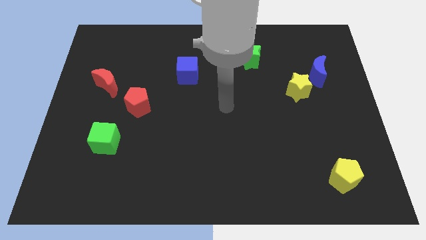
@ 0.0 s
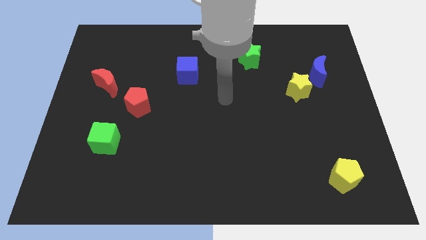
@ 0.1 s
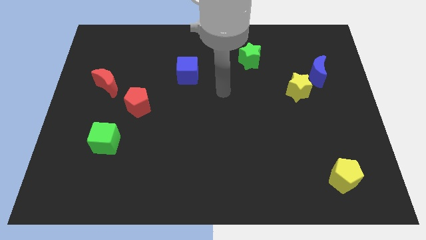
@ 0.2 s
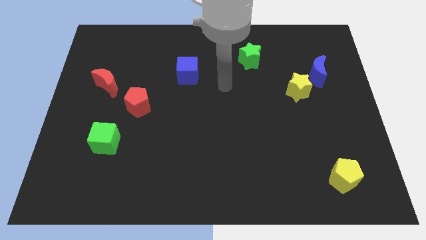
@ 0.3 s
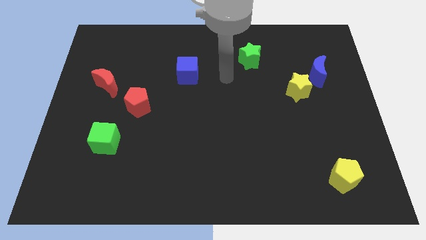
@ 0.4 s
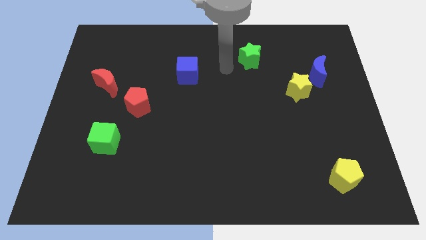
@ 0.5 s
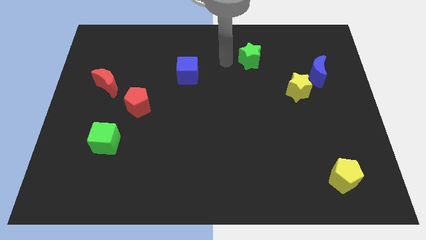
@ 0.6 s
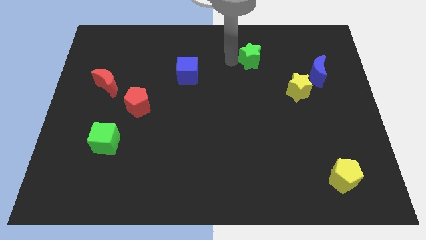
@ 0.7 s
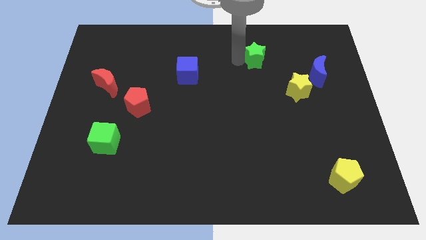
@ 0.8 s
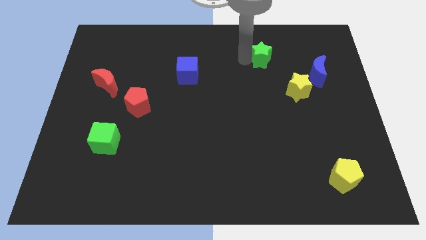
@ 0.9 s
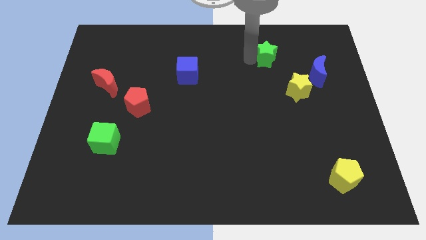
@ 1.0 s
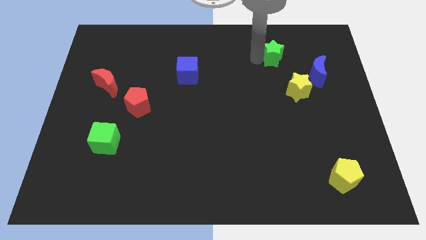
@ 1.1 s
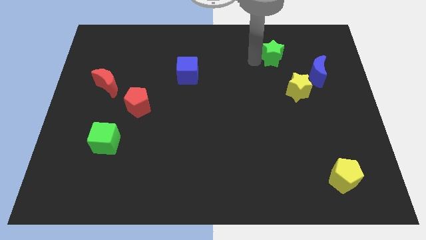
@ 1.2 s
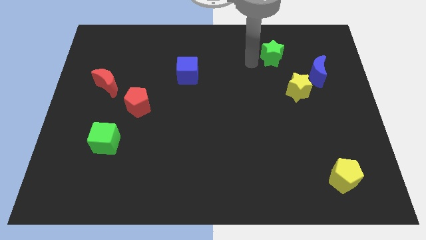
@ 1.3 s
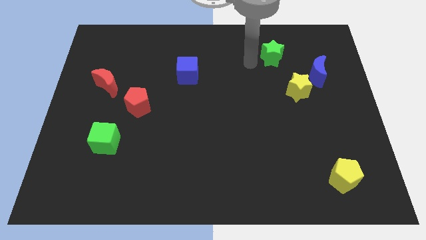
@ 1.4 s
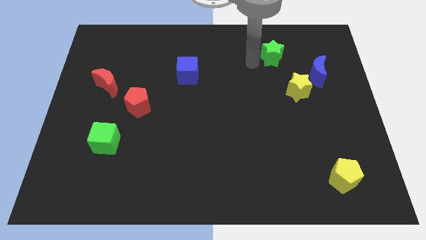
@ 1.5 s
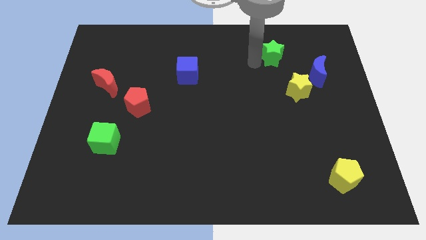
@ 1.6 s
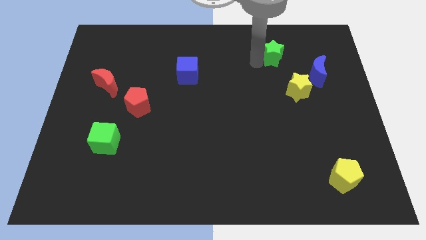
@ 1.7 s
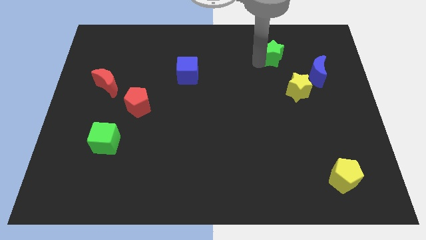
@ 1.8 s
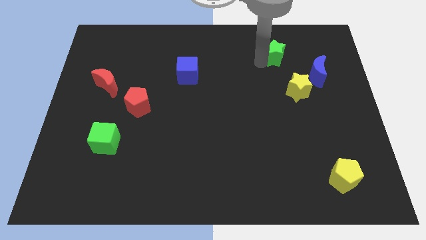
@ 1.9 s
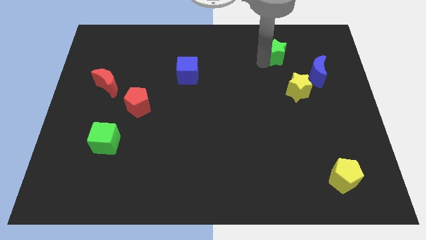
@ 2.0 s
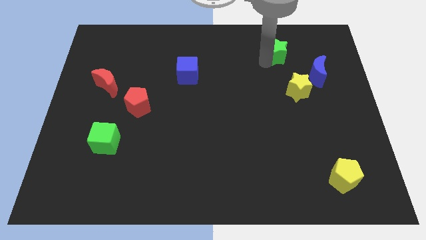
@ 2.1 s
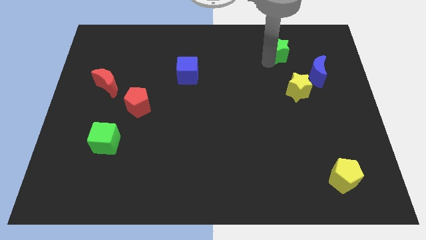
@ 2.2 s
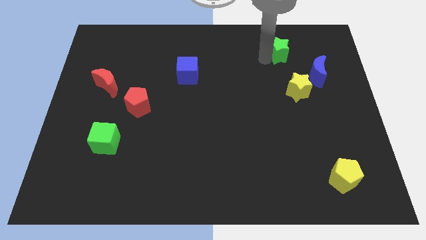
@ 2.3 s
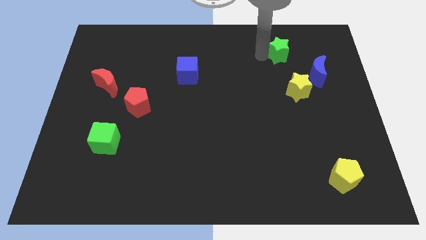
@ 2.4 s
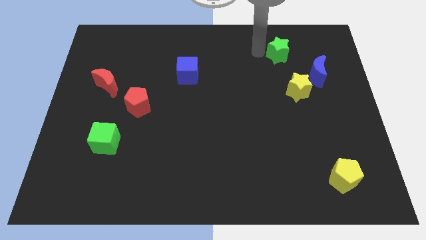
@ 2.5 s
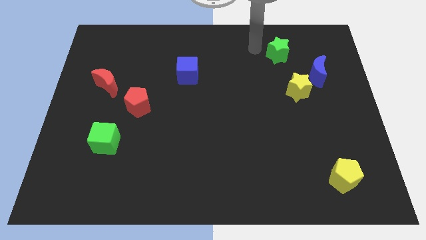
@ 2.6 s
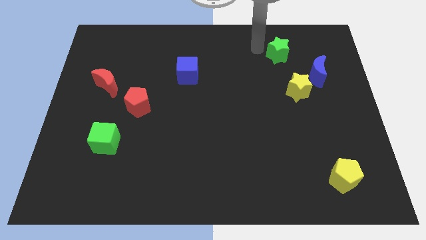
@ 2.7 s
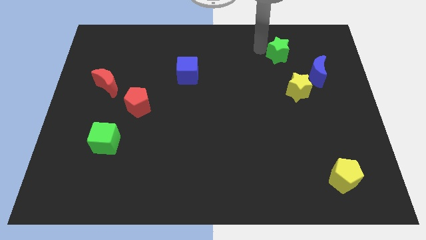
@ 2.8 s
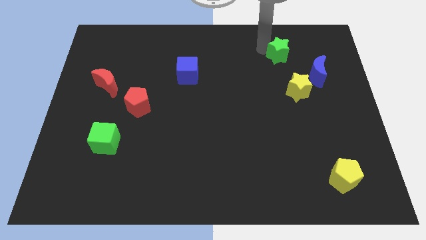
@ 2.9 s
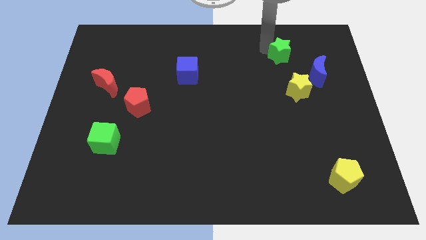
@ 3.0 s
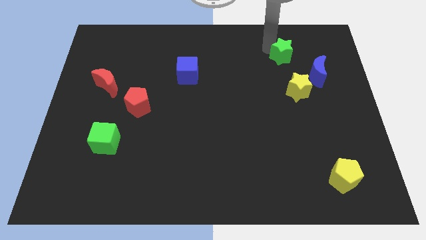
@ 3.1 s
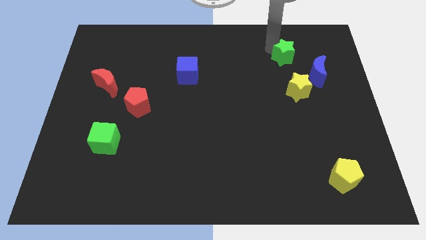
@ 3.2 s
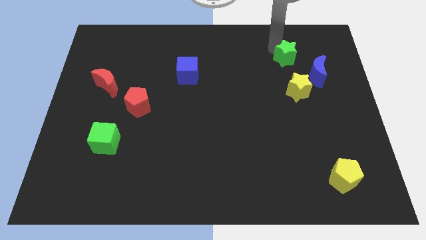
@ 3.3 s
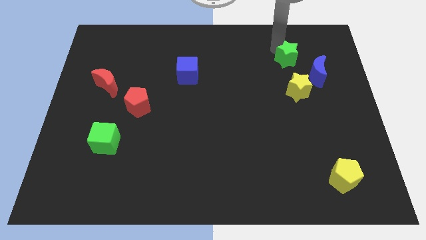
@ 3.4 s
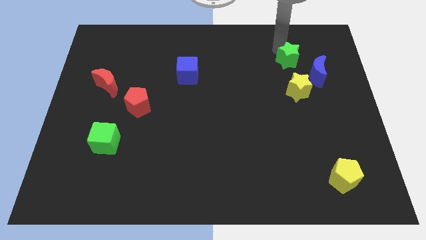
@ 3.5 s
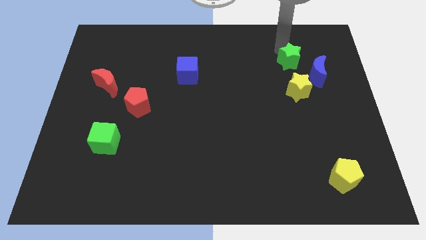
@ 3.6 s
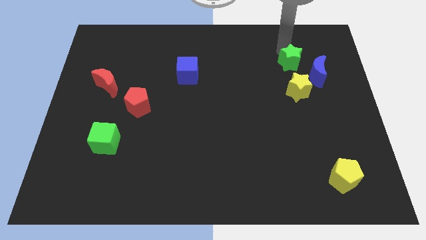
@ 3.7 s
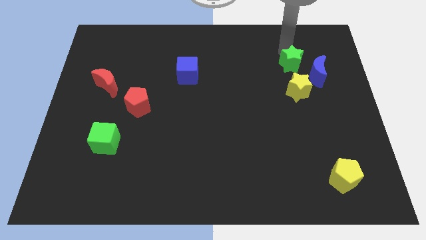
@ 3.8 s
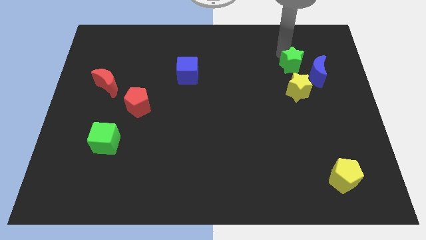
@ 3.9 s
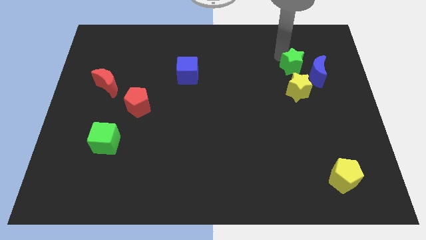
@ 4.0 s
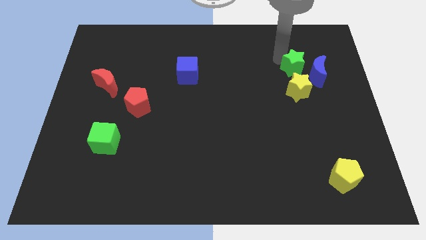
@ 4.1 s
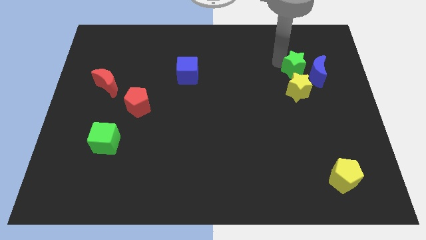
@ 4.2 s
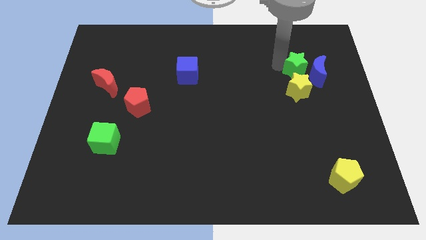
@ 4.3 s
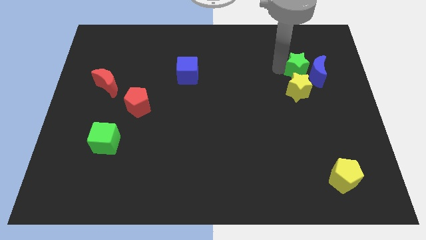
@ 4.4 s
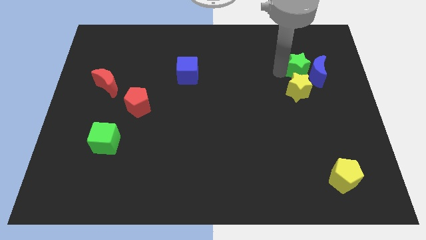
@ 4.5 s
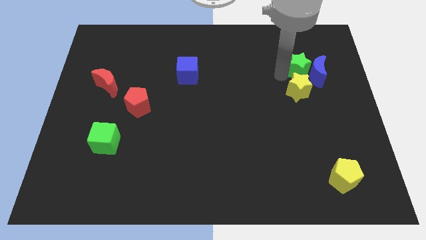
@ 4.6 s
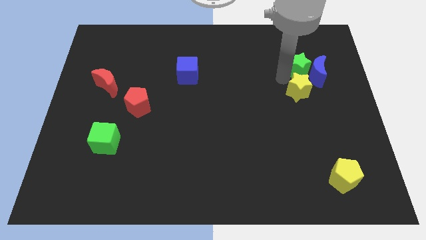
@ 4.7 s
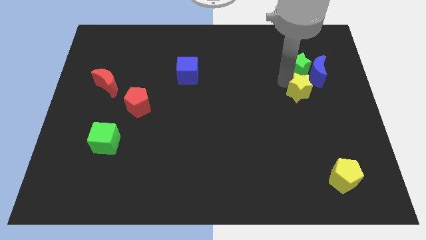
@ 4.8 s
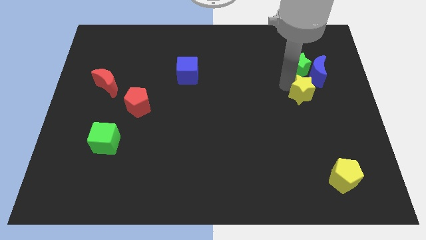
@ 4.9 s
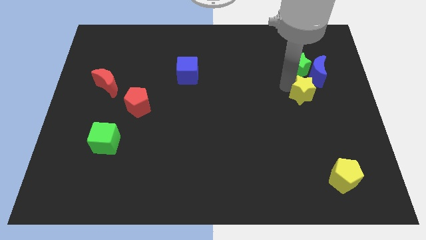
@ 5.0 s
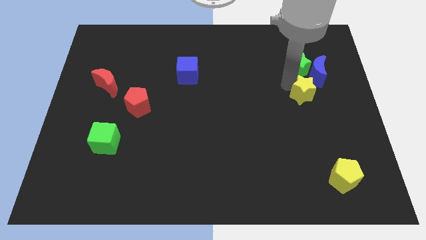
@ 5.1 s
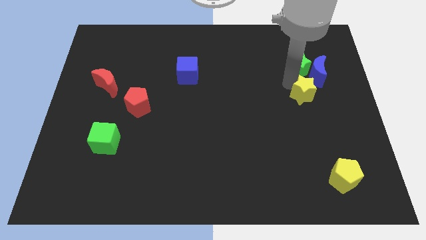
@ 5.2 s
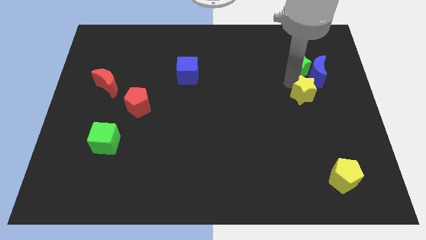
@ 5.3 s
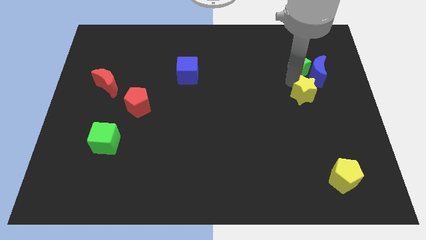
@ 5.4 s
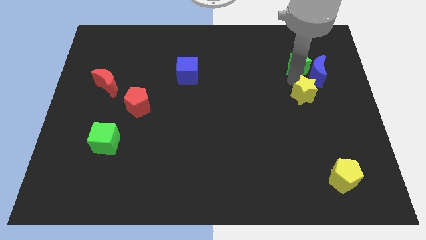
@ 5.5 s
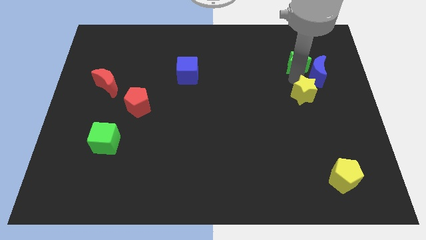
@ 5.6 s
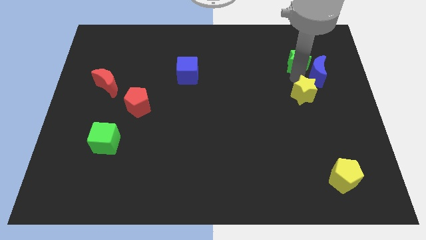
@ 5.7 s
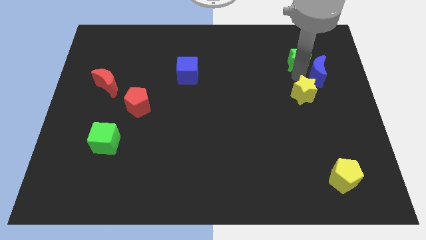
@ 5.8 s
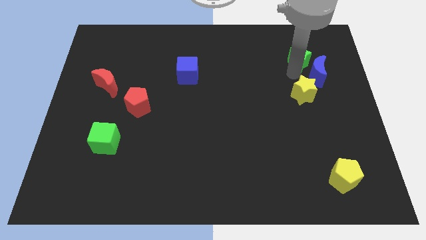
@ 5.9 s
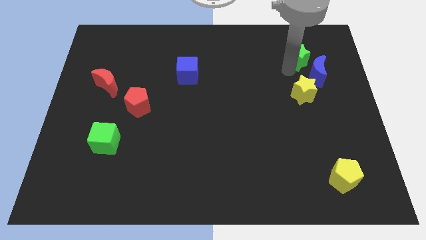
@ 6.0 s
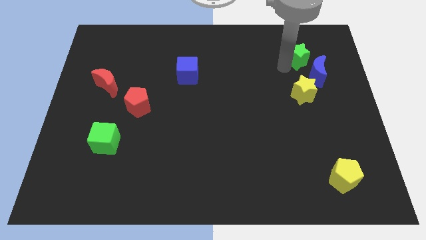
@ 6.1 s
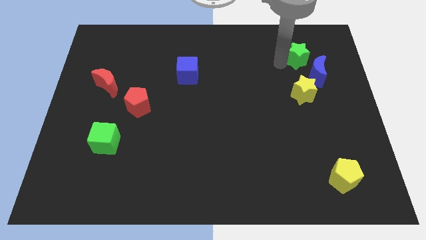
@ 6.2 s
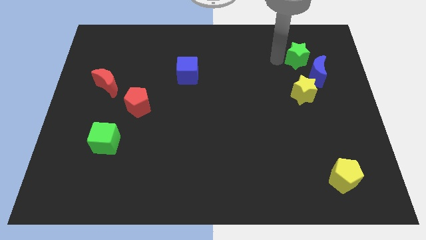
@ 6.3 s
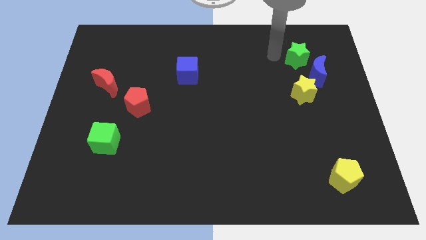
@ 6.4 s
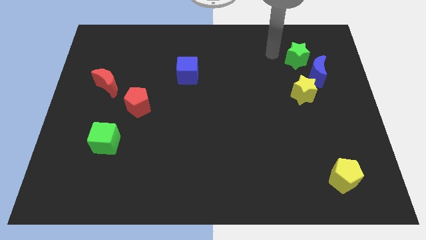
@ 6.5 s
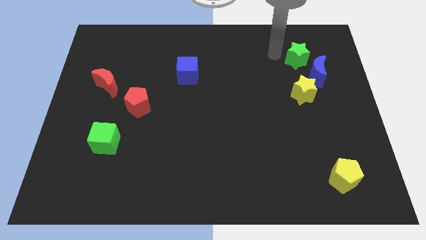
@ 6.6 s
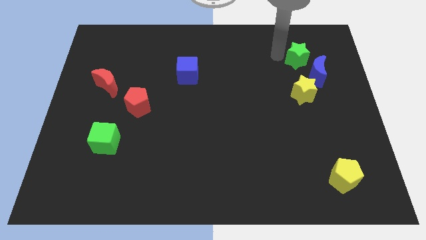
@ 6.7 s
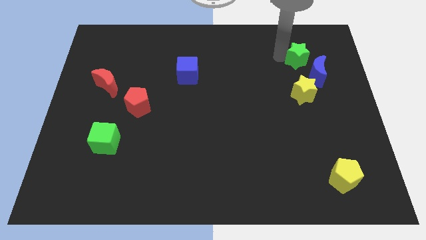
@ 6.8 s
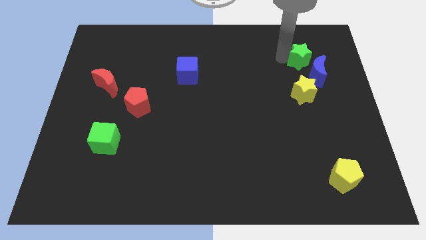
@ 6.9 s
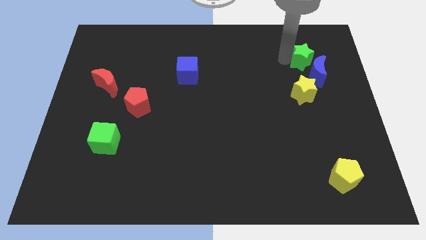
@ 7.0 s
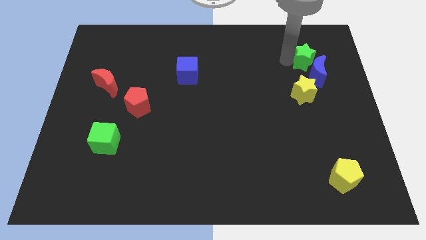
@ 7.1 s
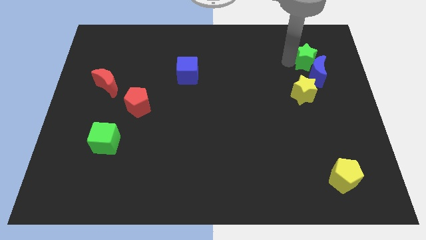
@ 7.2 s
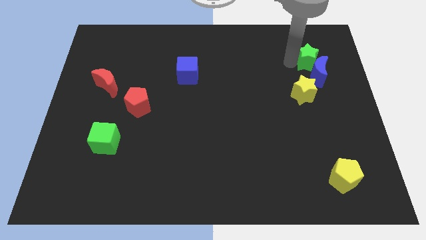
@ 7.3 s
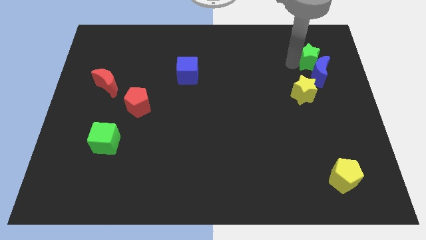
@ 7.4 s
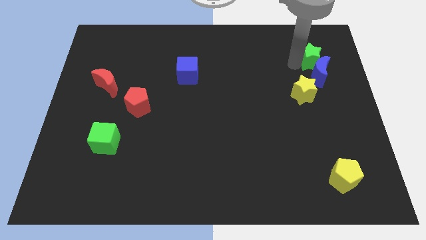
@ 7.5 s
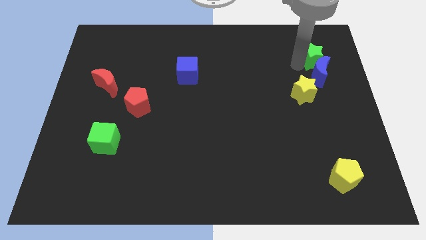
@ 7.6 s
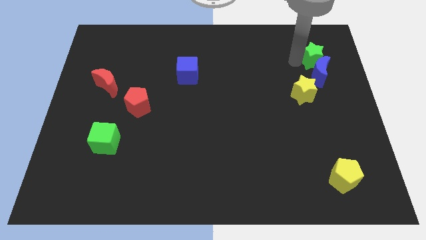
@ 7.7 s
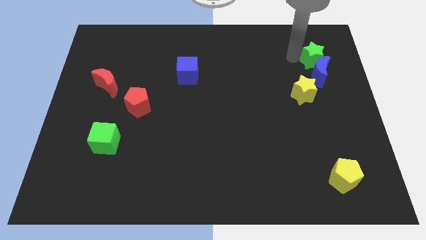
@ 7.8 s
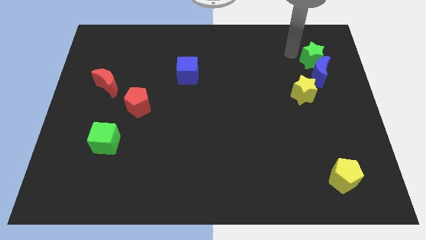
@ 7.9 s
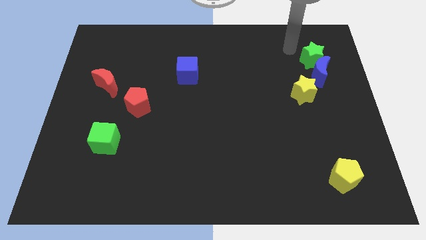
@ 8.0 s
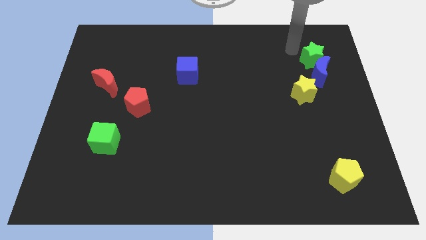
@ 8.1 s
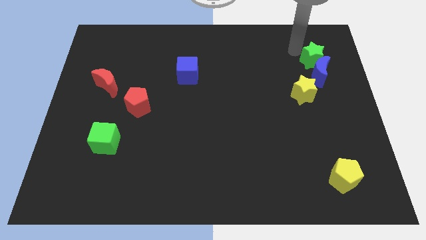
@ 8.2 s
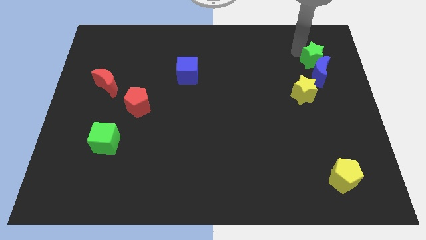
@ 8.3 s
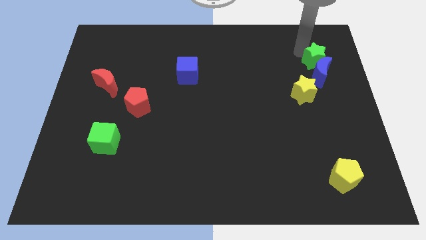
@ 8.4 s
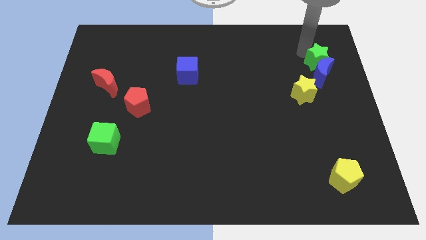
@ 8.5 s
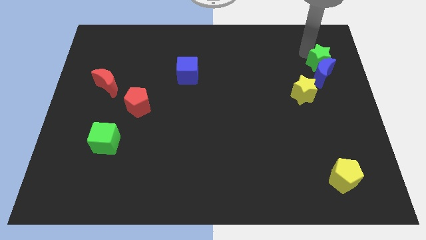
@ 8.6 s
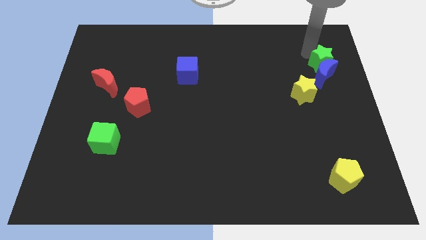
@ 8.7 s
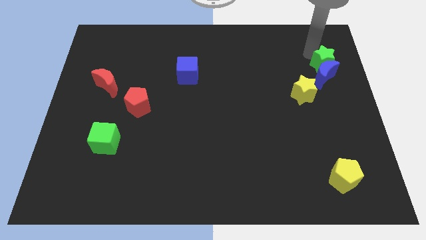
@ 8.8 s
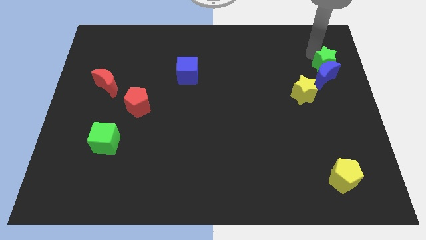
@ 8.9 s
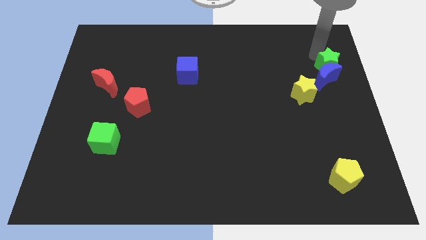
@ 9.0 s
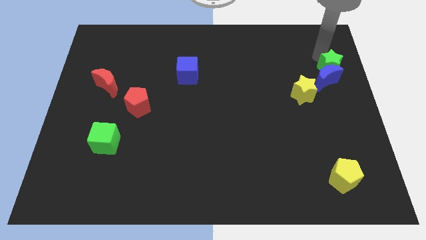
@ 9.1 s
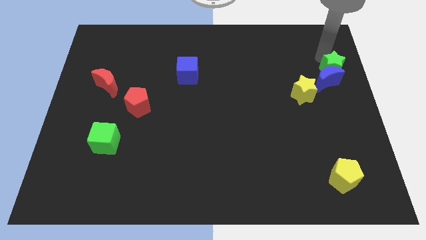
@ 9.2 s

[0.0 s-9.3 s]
move the green star to the right side
